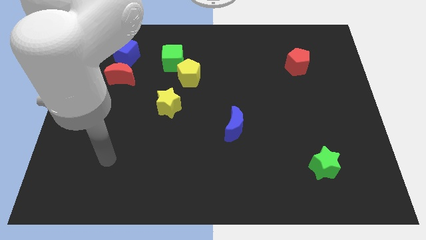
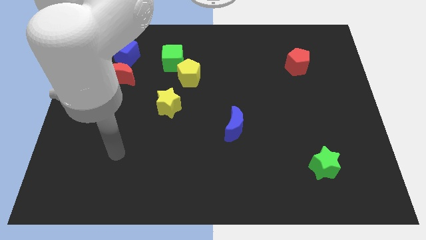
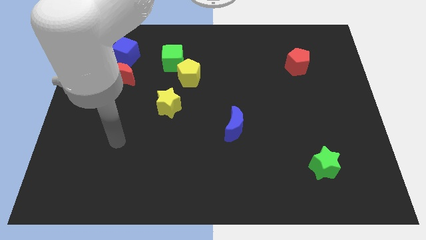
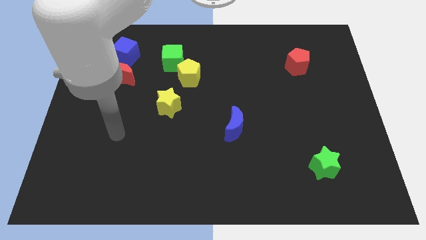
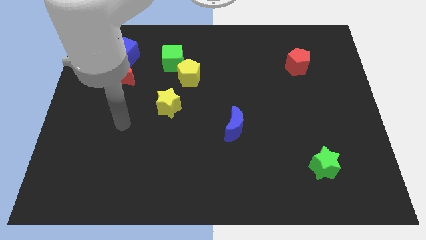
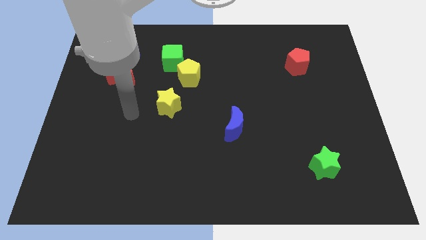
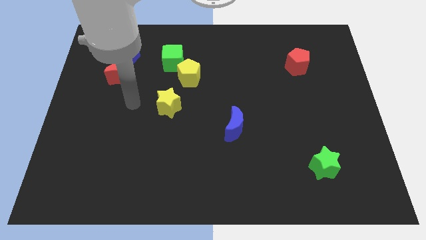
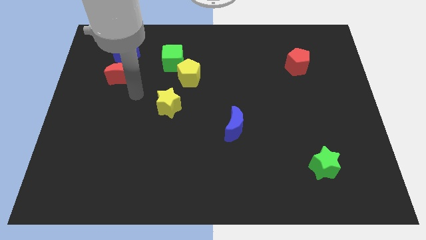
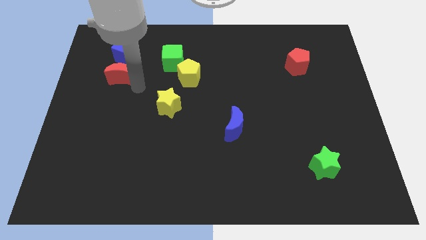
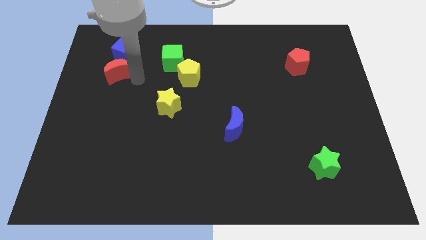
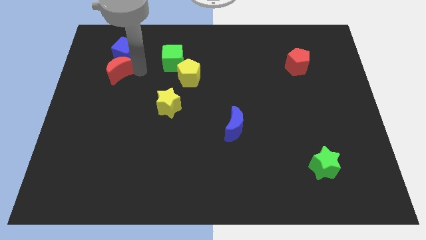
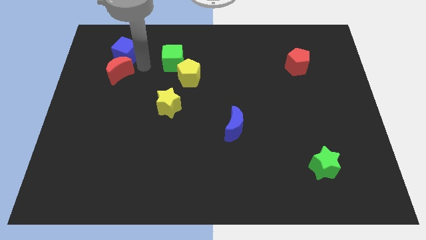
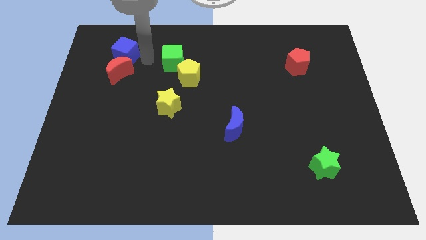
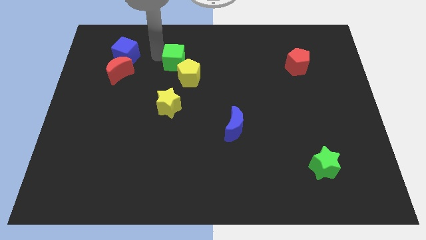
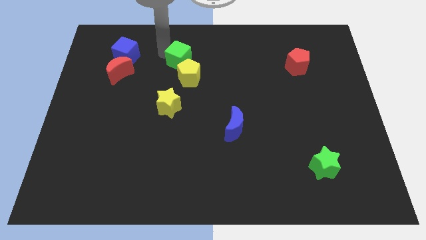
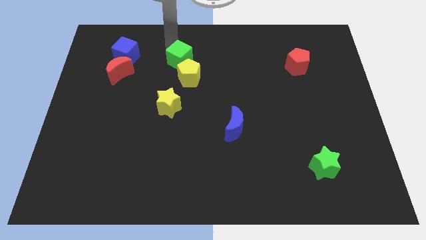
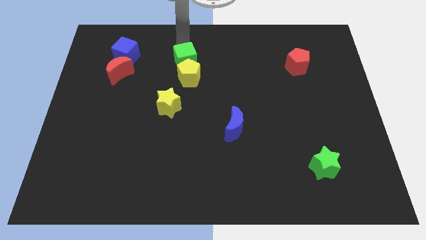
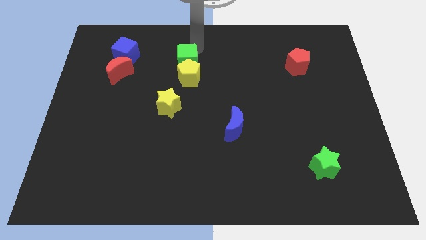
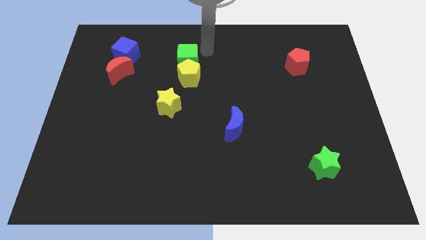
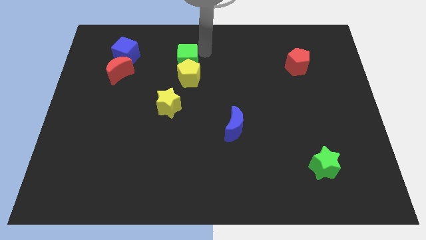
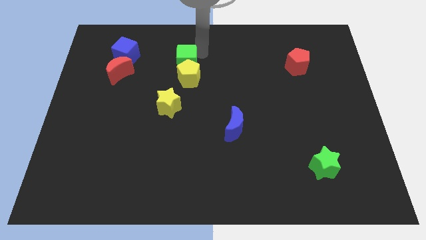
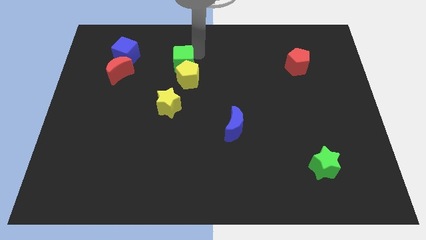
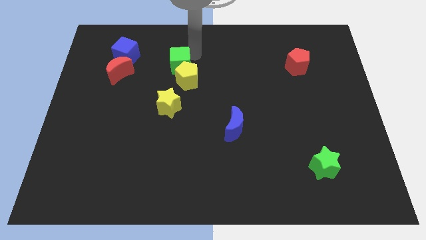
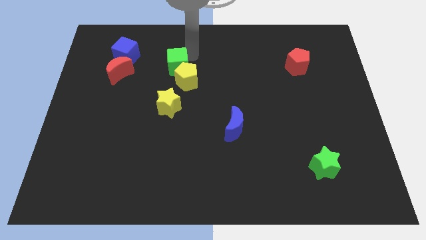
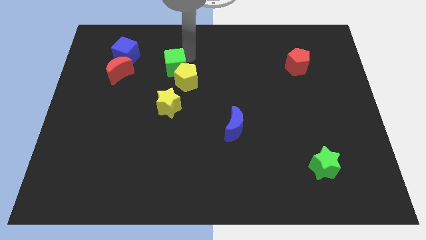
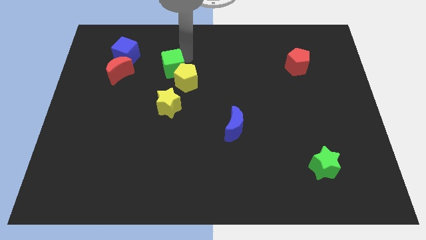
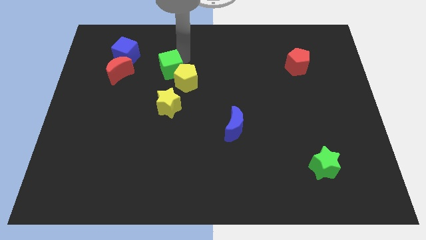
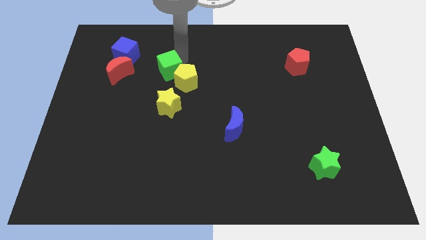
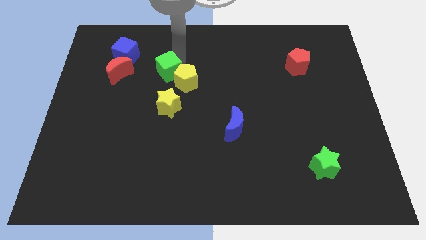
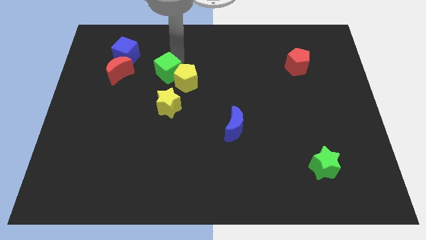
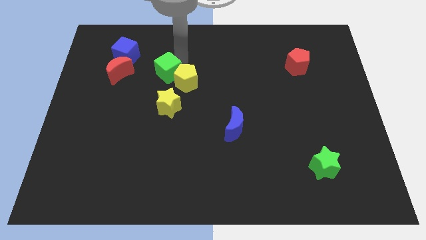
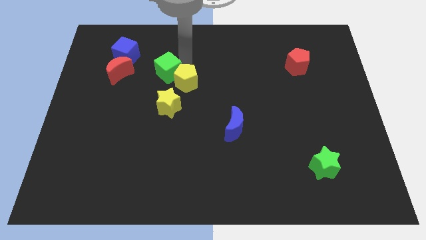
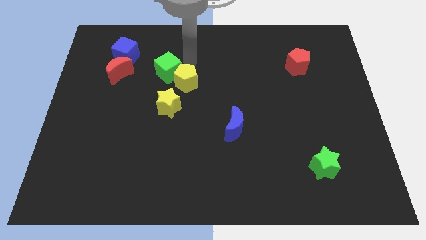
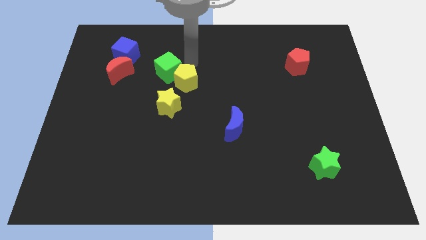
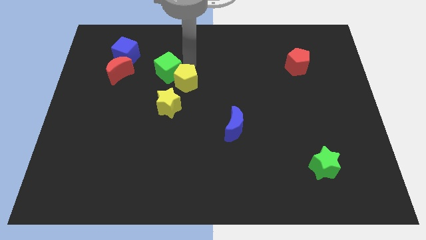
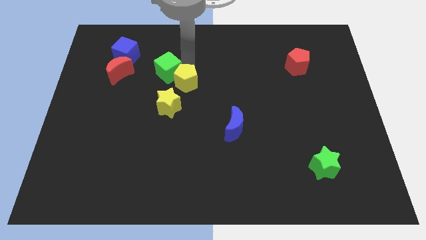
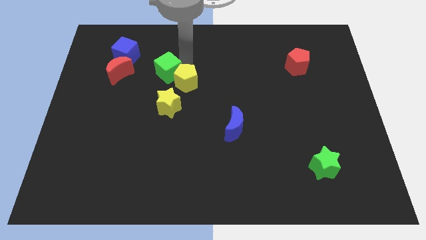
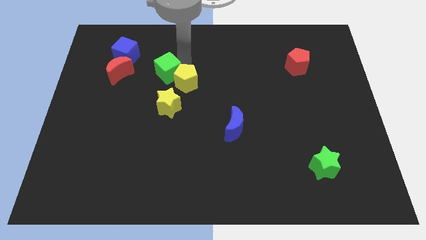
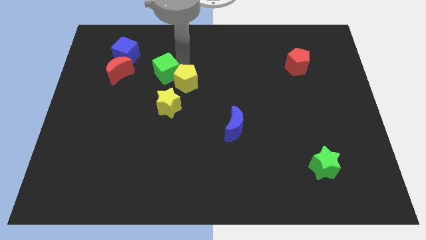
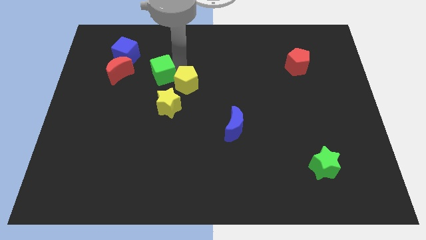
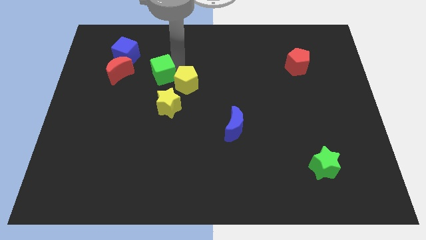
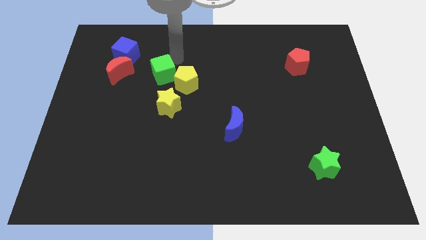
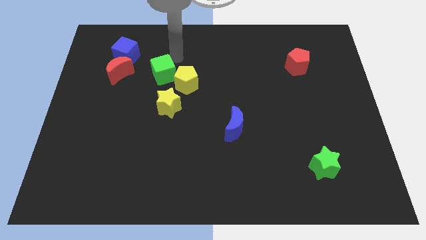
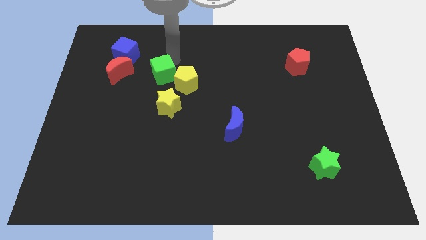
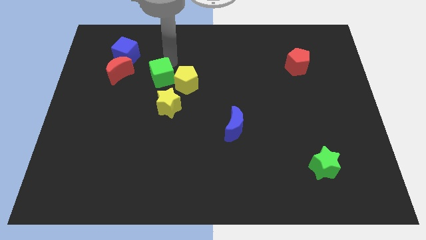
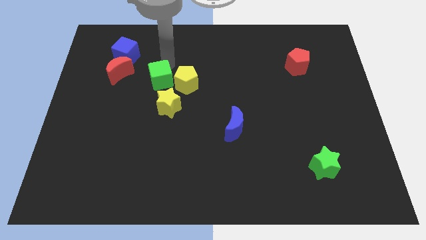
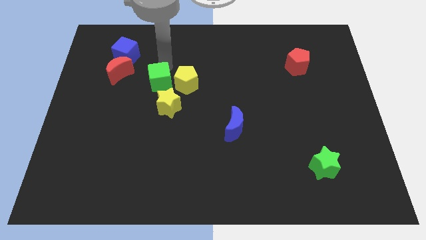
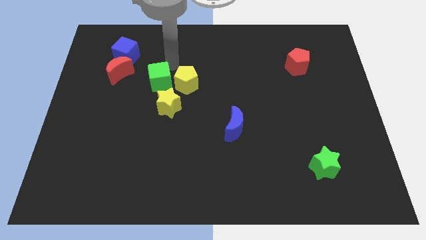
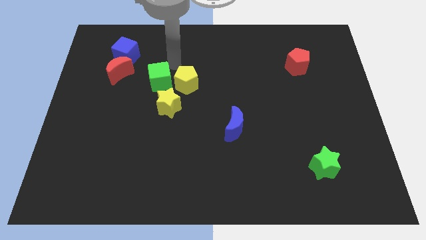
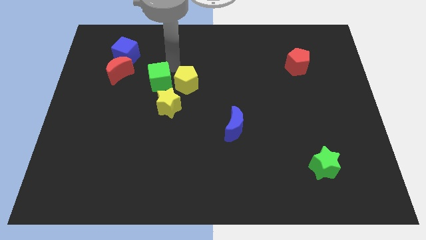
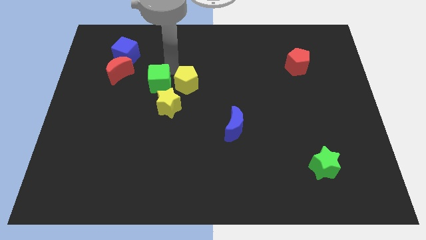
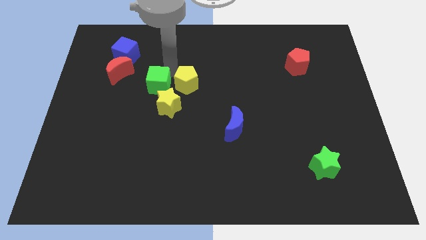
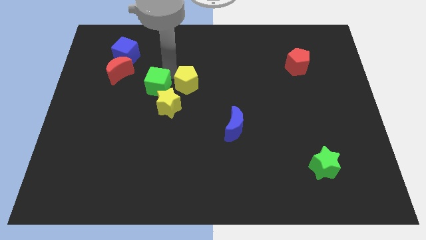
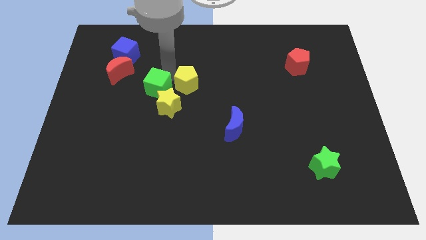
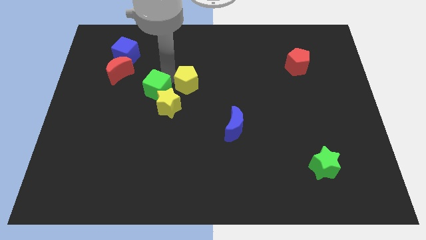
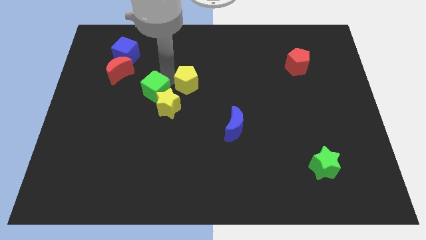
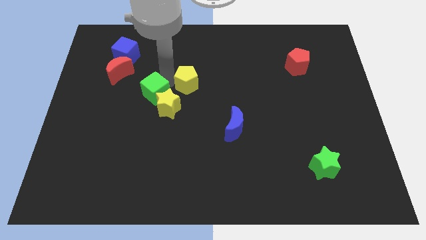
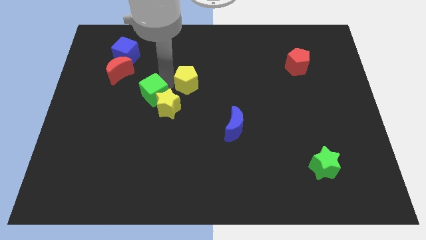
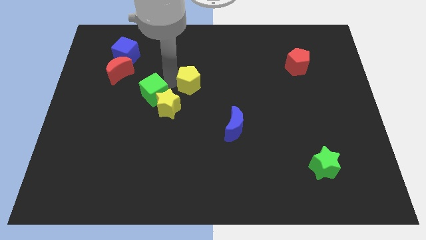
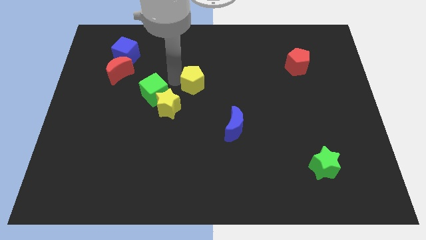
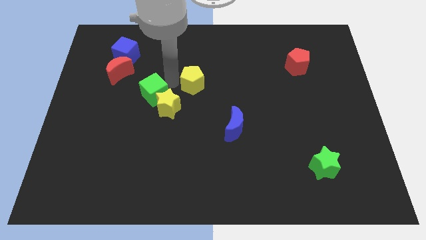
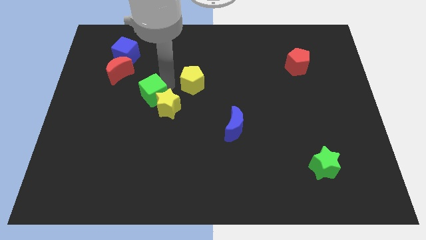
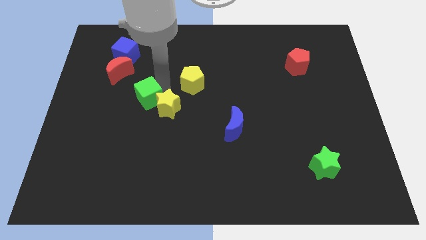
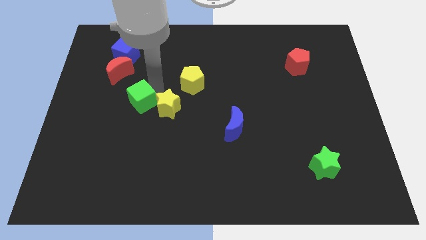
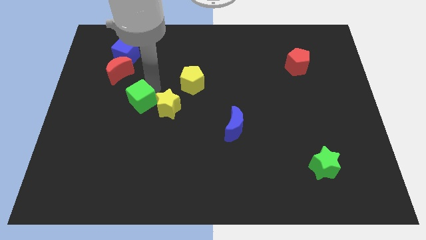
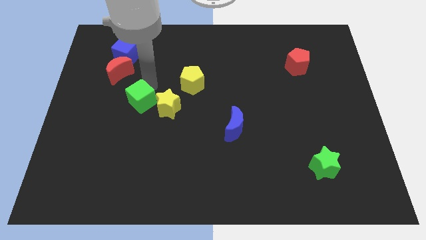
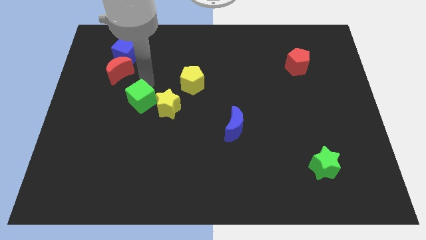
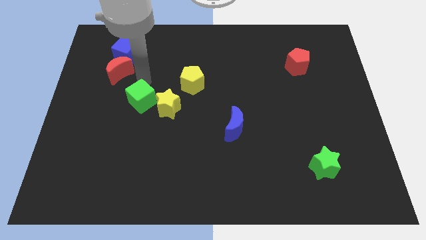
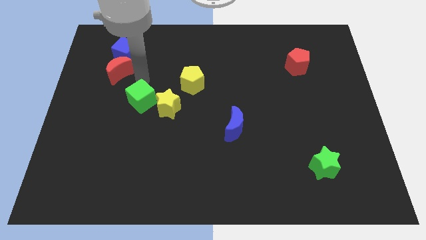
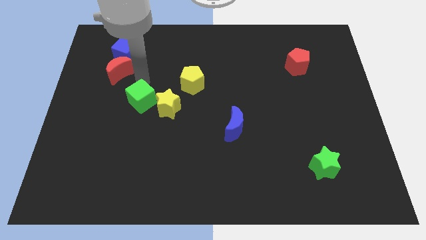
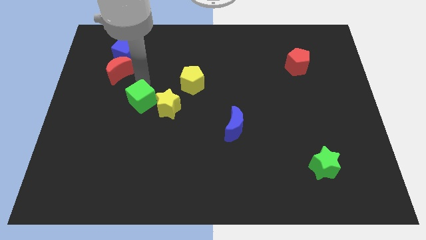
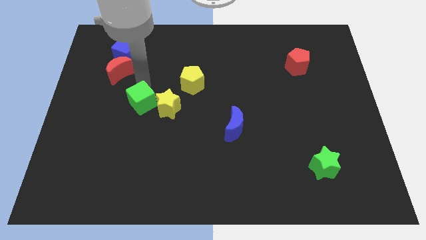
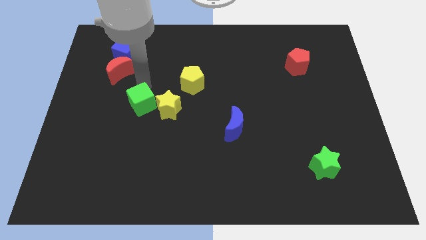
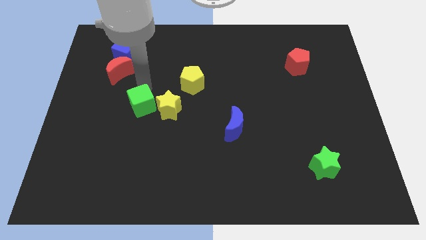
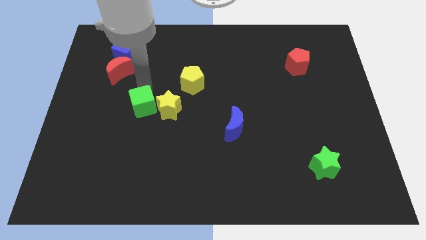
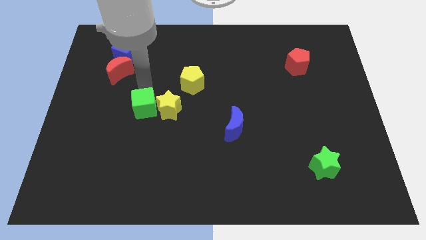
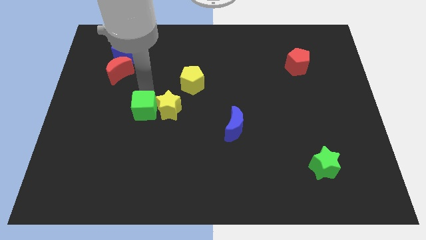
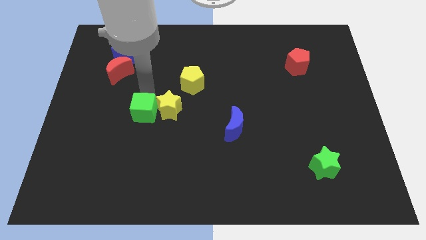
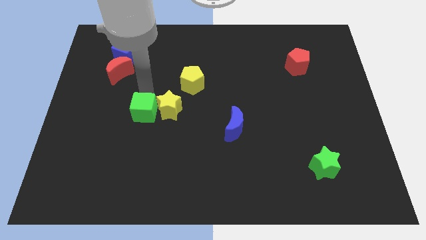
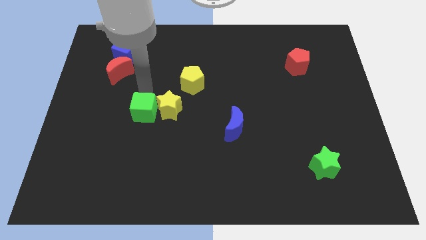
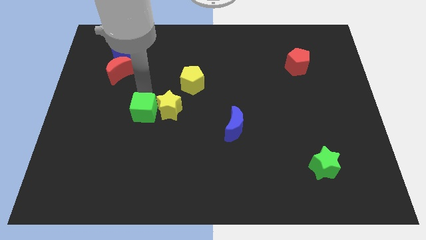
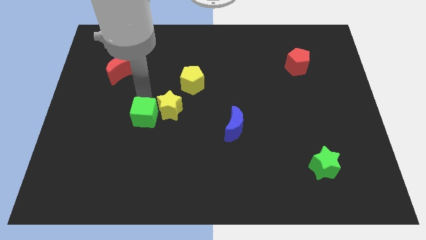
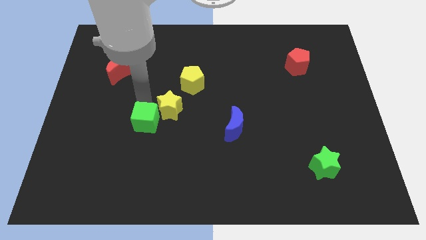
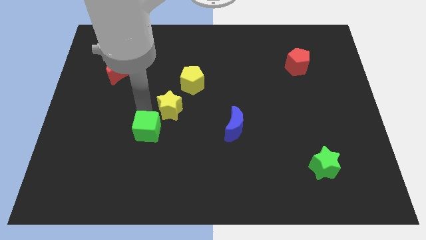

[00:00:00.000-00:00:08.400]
push the green cube downwards

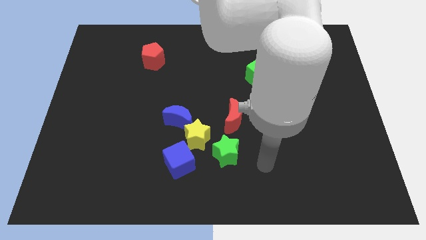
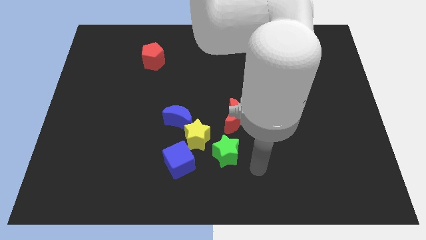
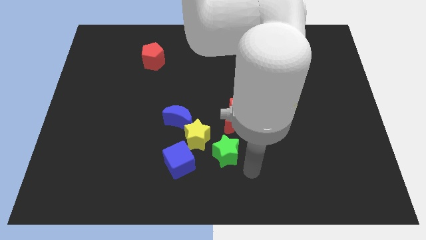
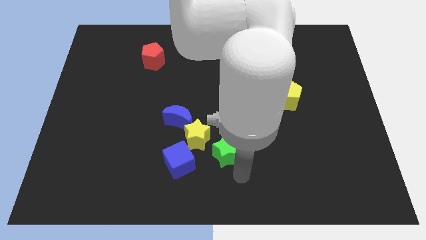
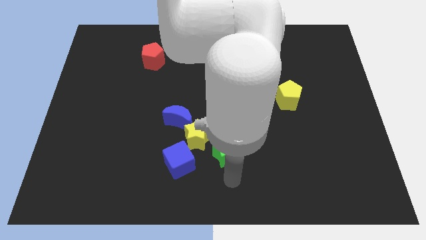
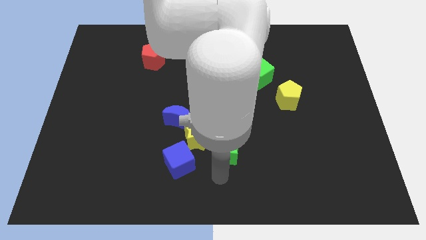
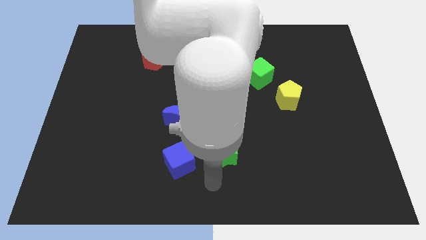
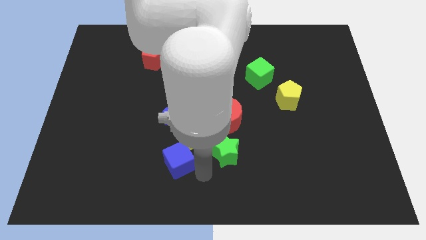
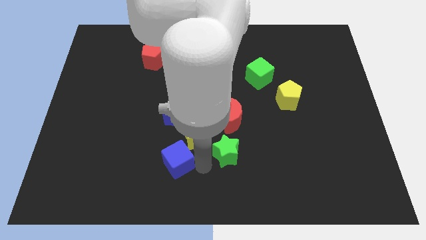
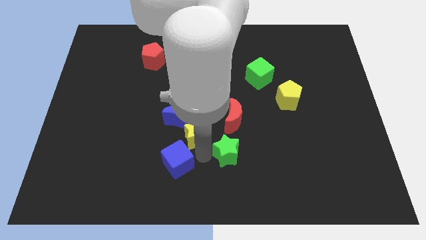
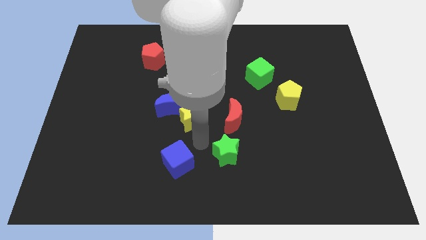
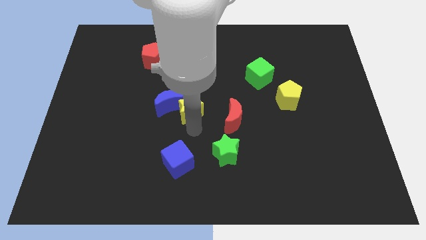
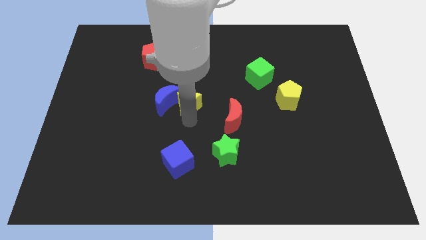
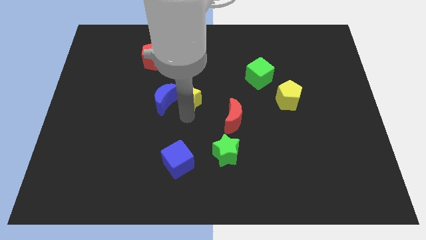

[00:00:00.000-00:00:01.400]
slide the blue moon up and left a little
